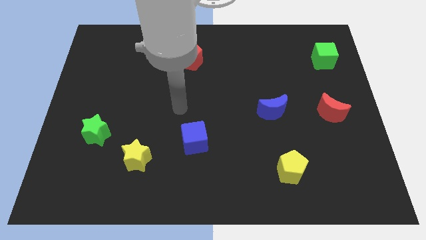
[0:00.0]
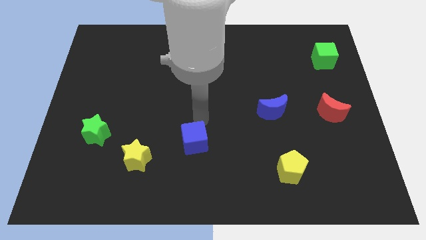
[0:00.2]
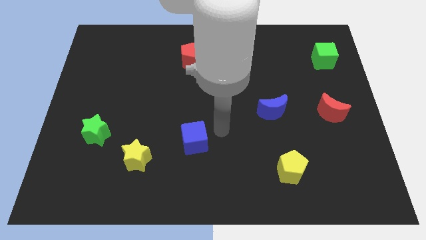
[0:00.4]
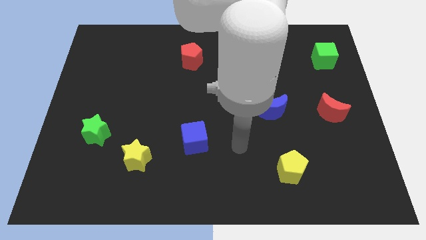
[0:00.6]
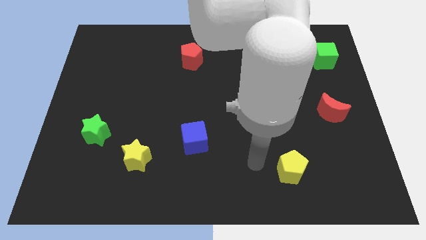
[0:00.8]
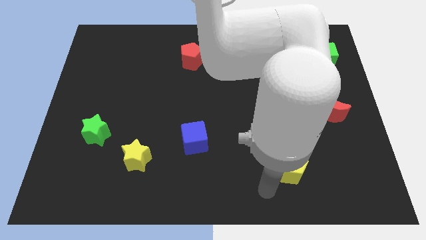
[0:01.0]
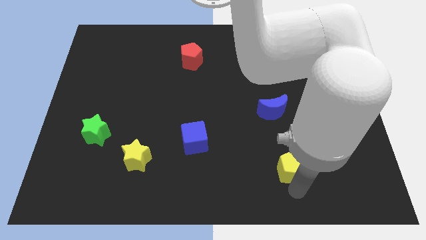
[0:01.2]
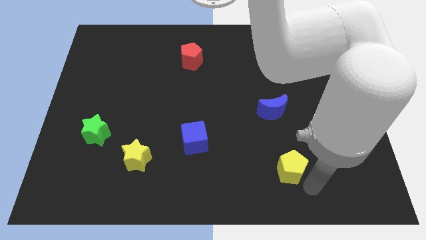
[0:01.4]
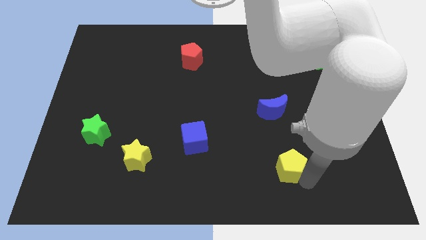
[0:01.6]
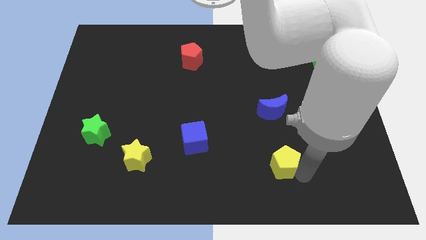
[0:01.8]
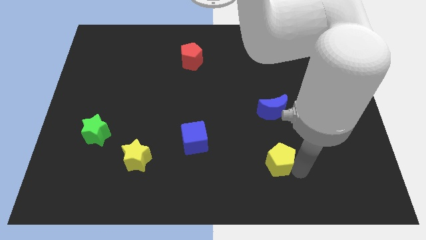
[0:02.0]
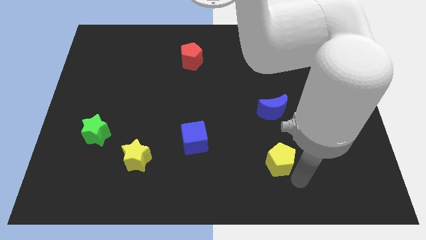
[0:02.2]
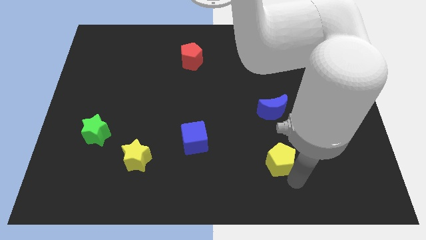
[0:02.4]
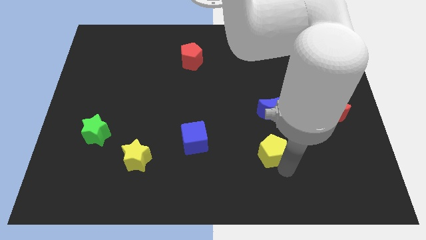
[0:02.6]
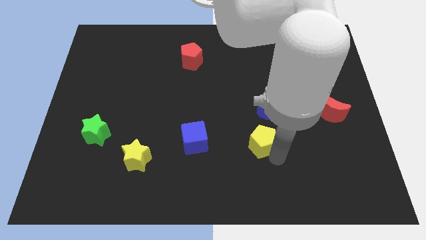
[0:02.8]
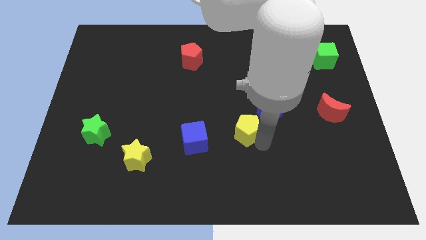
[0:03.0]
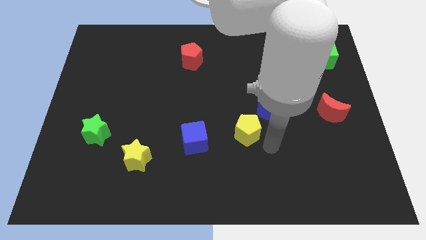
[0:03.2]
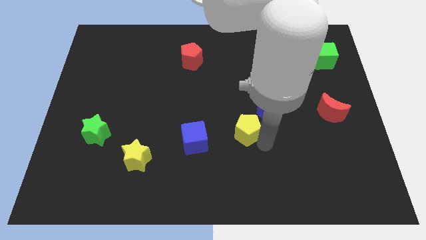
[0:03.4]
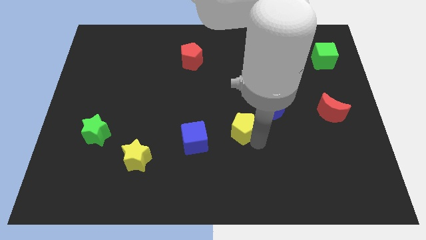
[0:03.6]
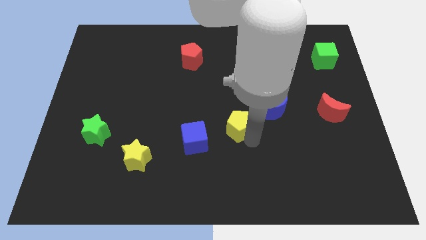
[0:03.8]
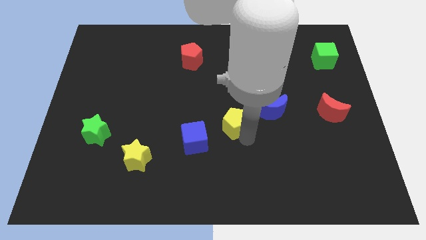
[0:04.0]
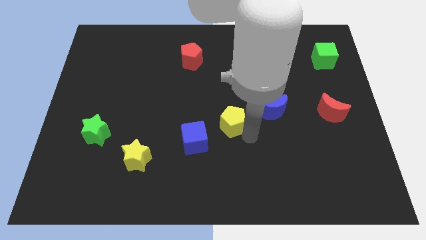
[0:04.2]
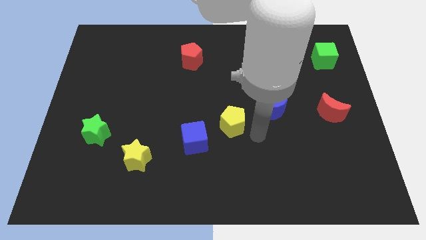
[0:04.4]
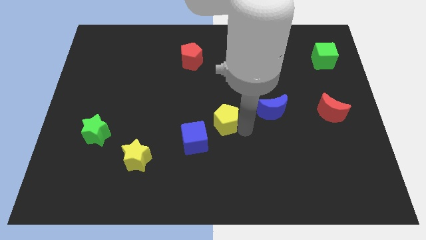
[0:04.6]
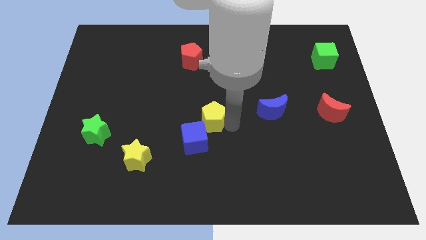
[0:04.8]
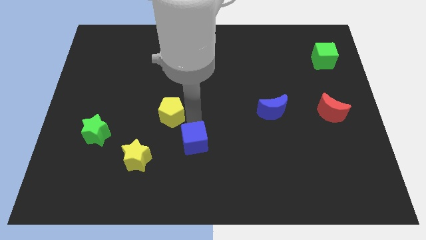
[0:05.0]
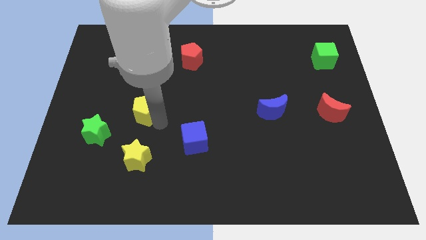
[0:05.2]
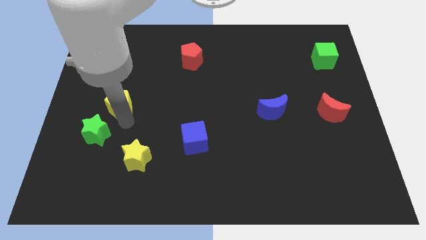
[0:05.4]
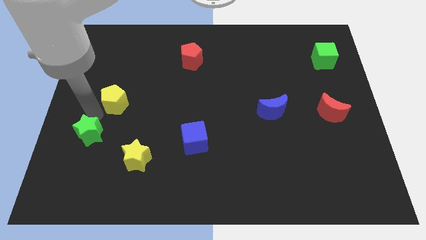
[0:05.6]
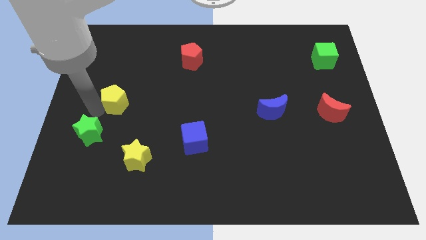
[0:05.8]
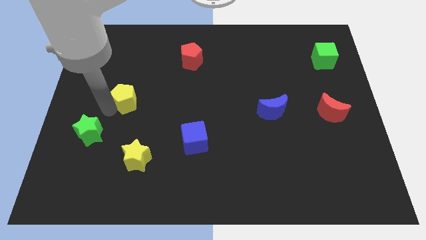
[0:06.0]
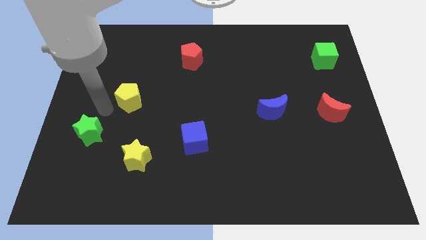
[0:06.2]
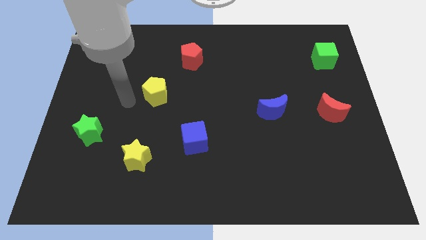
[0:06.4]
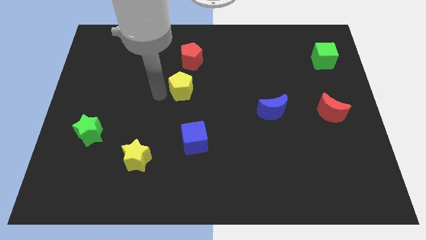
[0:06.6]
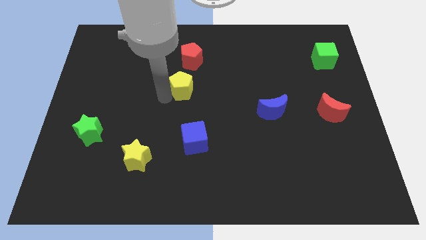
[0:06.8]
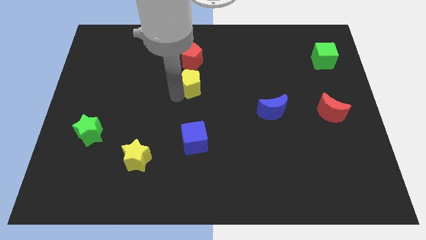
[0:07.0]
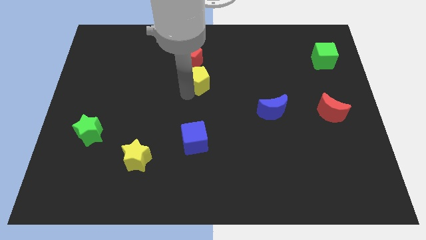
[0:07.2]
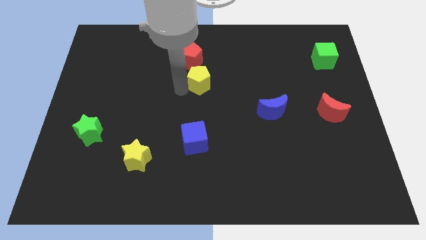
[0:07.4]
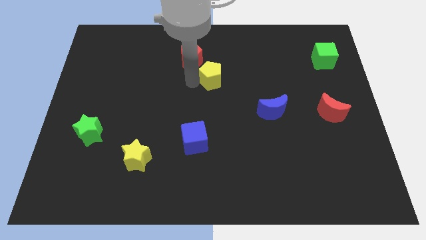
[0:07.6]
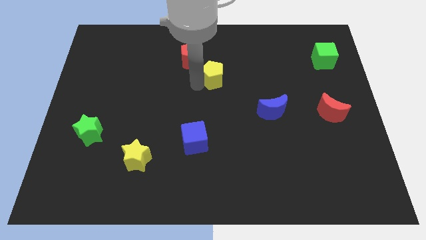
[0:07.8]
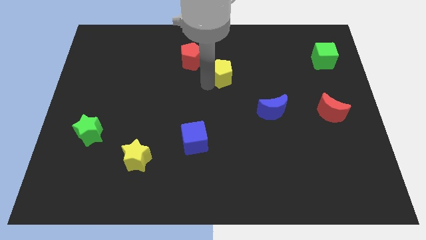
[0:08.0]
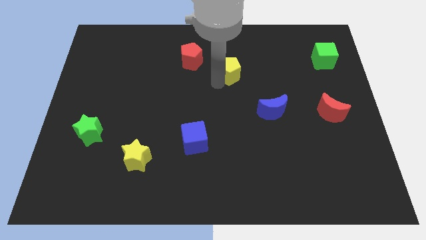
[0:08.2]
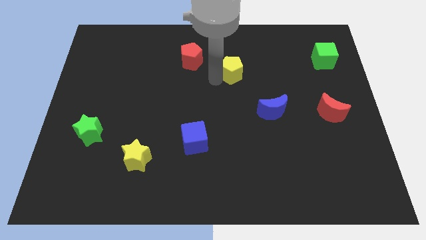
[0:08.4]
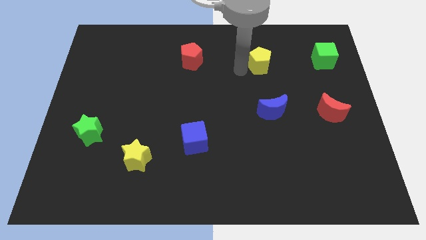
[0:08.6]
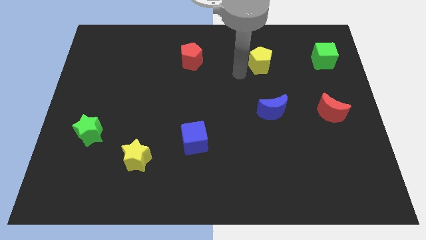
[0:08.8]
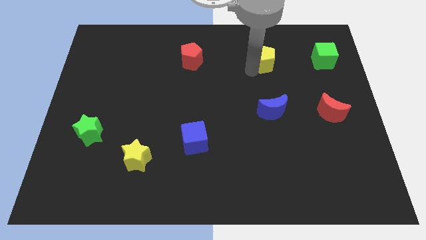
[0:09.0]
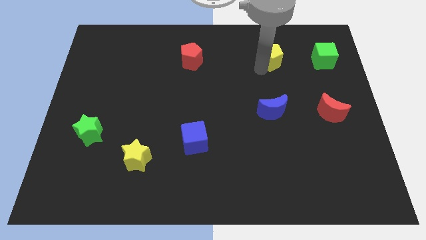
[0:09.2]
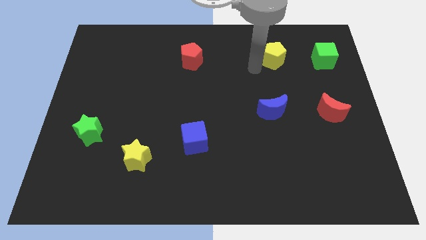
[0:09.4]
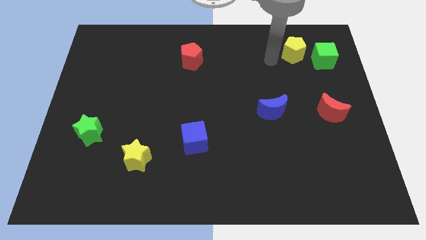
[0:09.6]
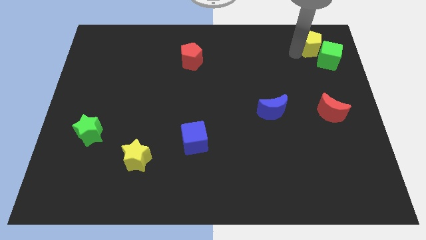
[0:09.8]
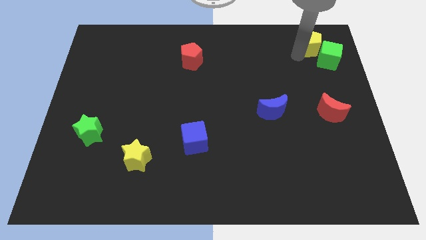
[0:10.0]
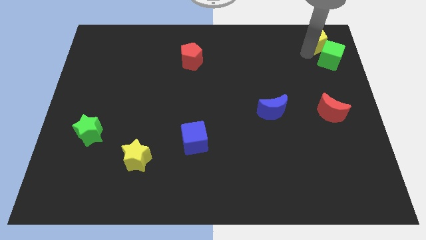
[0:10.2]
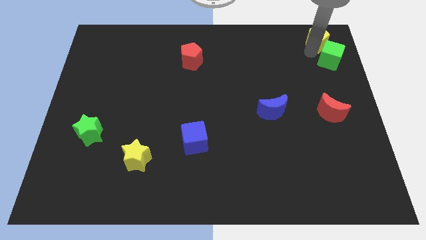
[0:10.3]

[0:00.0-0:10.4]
push the yellow pentagon to the upper right corner
